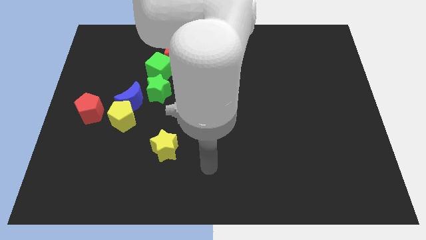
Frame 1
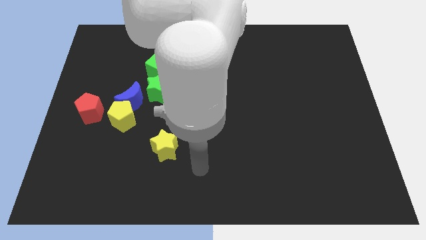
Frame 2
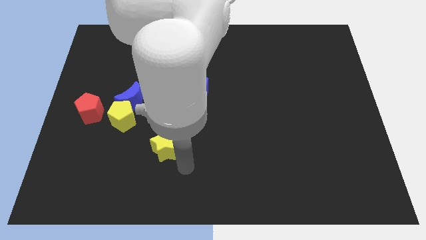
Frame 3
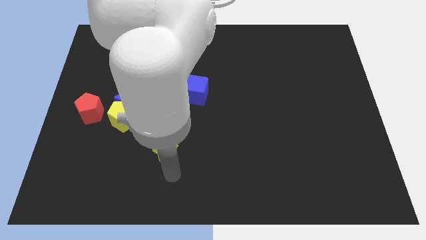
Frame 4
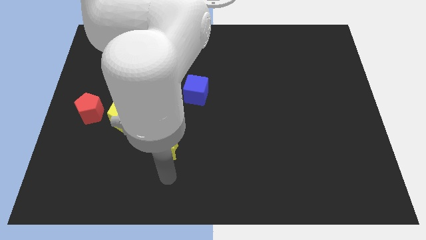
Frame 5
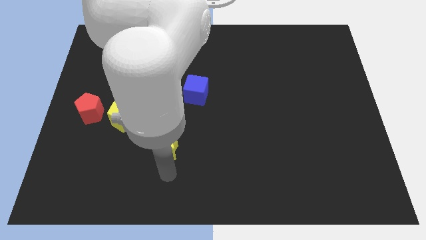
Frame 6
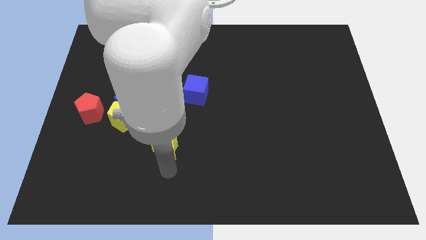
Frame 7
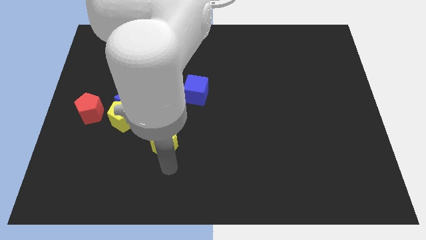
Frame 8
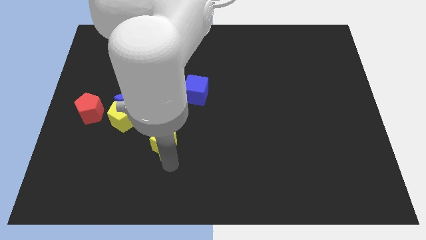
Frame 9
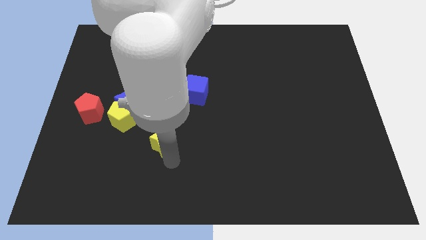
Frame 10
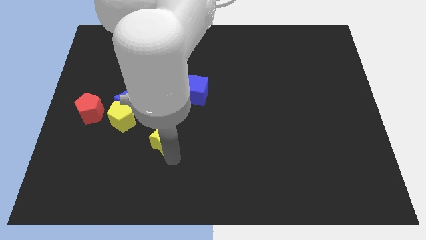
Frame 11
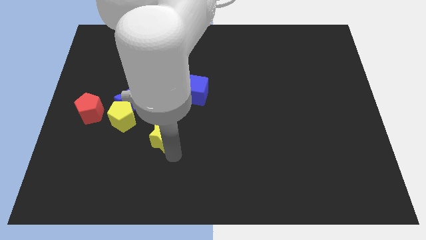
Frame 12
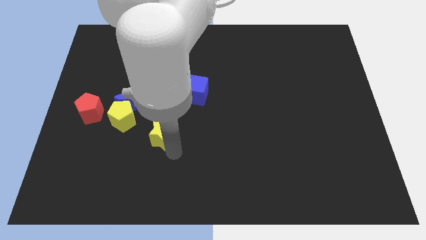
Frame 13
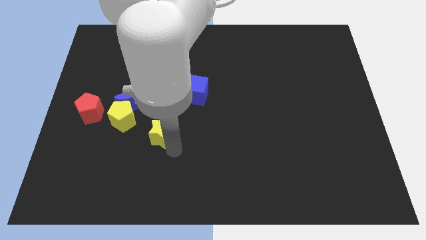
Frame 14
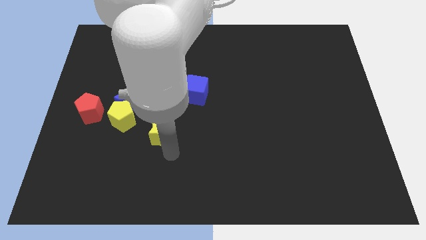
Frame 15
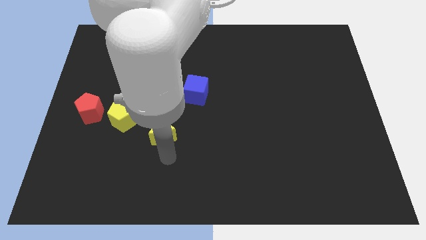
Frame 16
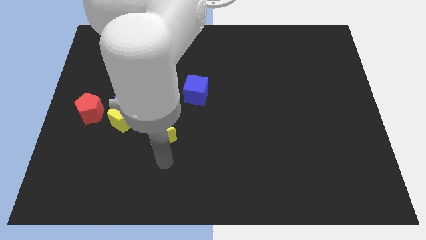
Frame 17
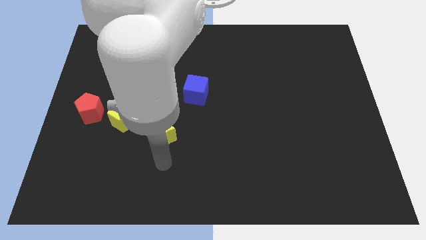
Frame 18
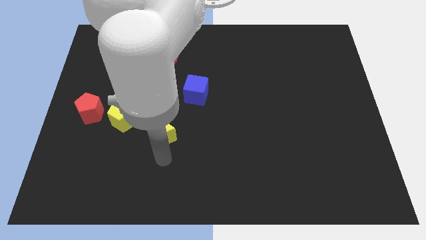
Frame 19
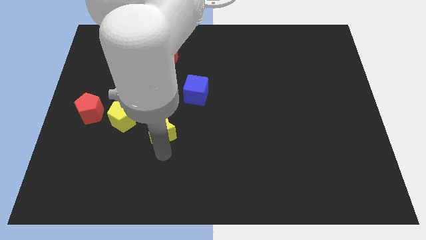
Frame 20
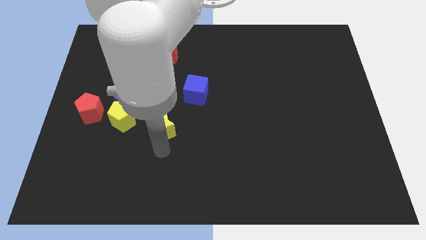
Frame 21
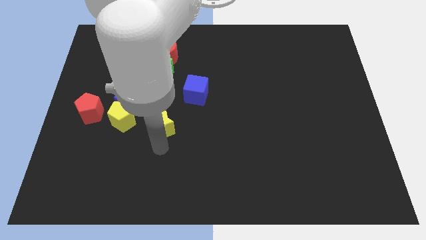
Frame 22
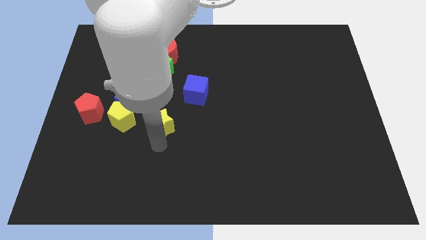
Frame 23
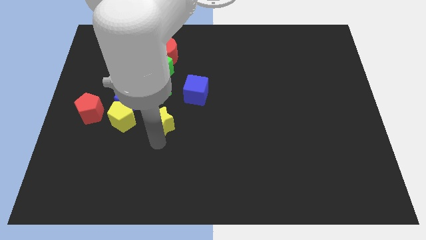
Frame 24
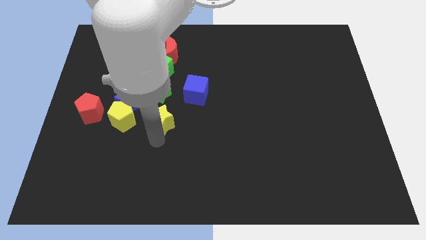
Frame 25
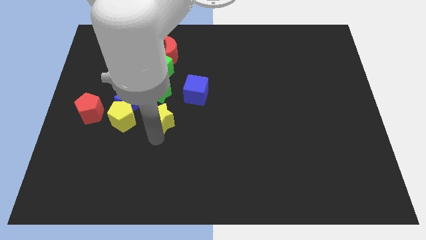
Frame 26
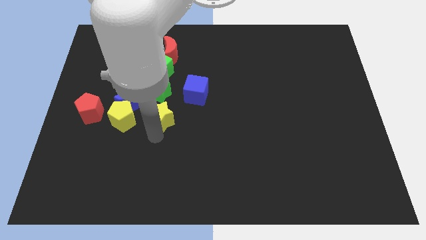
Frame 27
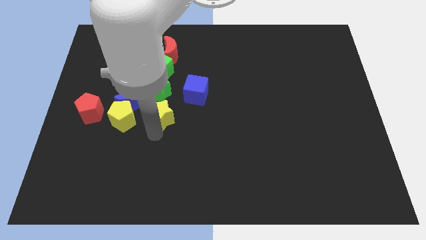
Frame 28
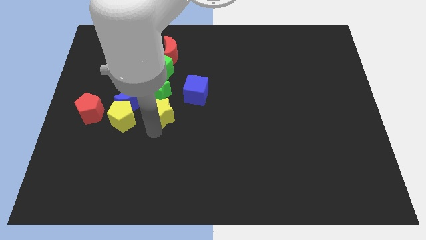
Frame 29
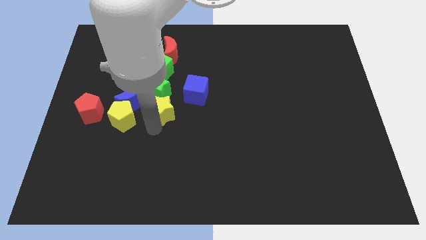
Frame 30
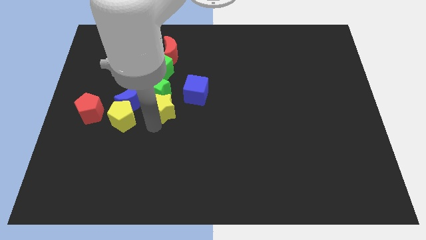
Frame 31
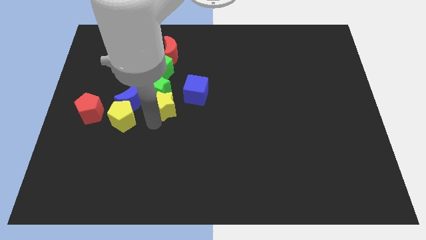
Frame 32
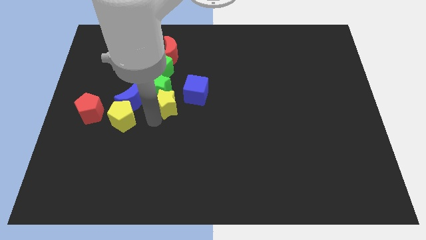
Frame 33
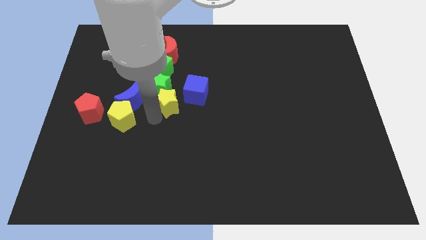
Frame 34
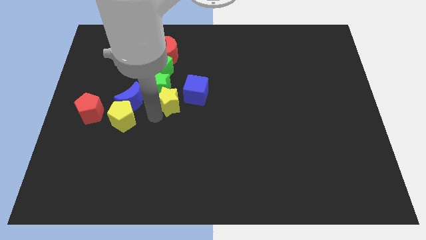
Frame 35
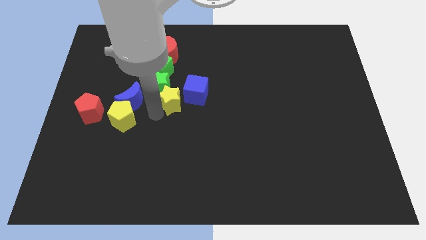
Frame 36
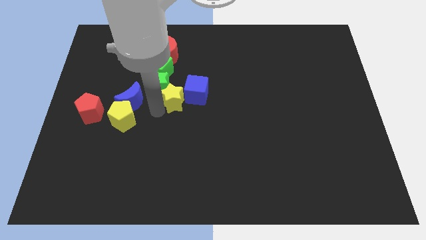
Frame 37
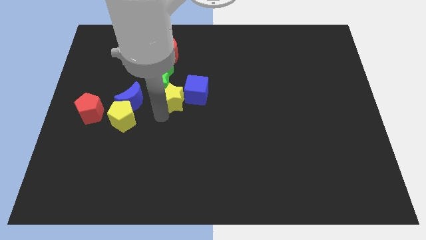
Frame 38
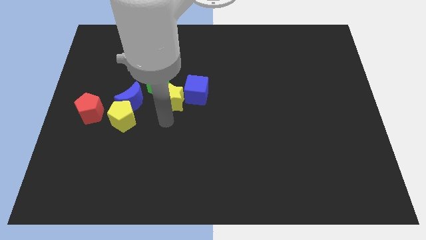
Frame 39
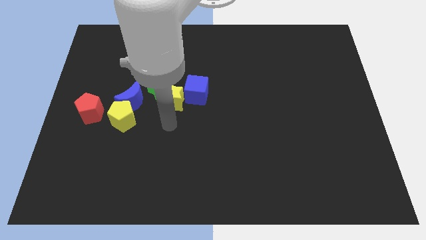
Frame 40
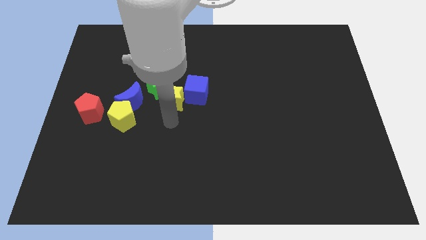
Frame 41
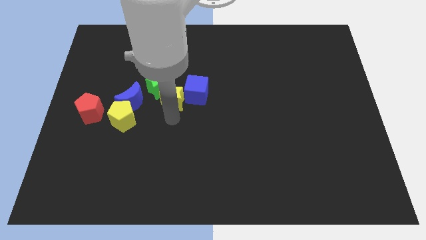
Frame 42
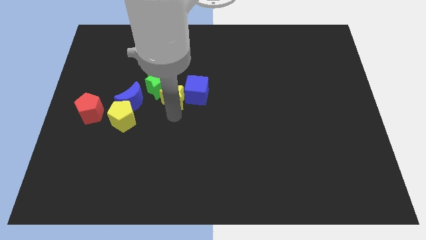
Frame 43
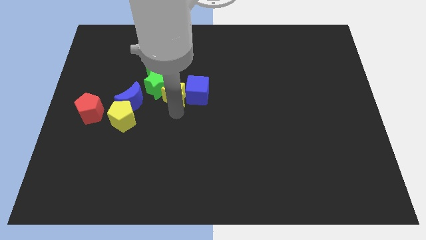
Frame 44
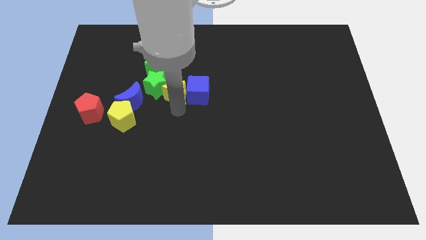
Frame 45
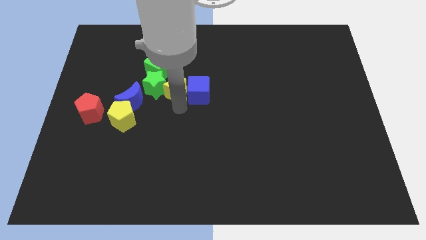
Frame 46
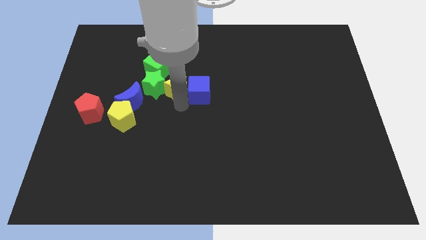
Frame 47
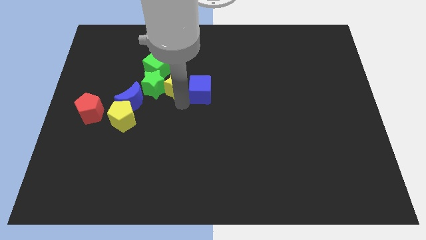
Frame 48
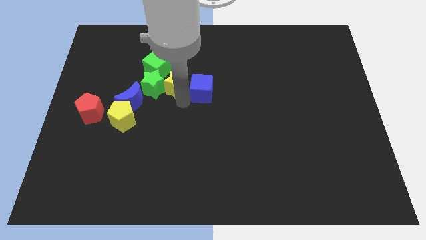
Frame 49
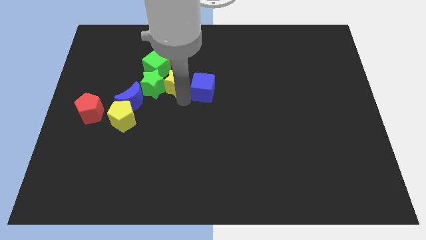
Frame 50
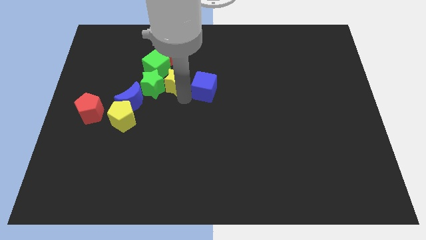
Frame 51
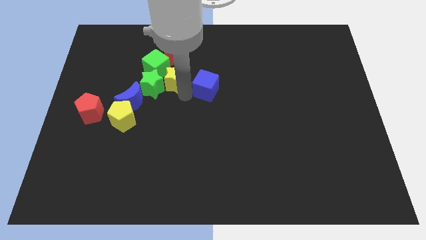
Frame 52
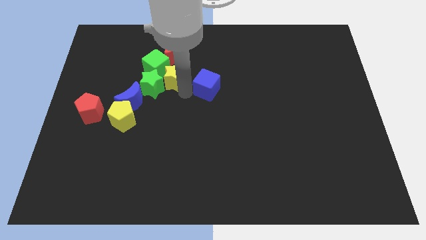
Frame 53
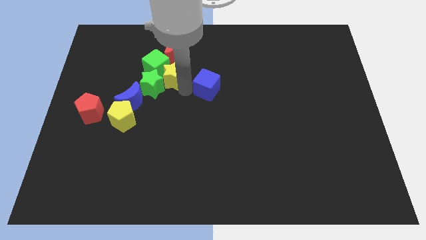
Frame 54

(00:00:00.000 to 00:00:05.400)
put the yellow star close to the green cube

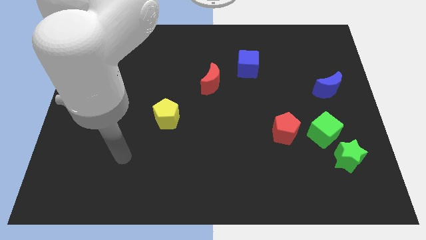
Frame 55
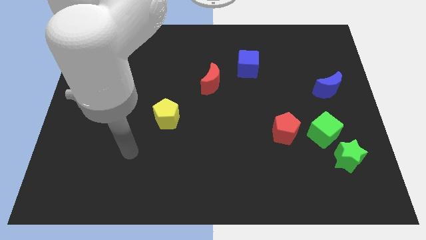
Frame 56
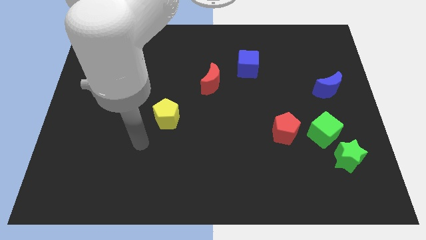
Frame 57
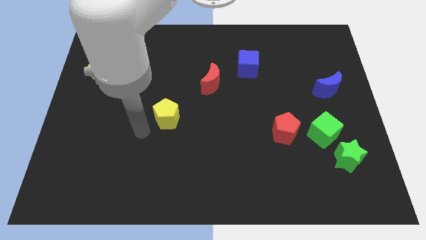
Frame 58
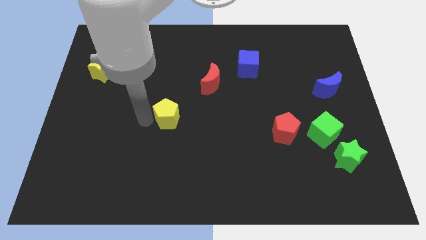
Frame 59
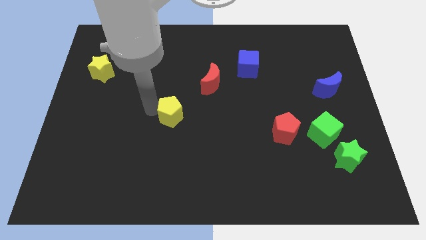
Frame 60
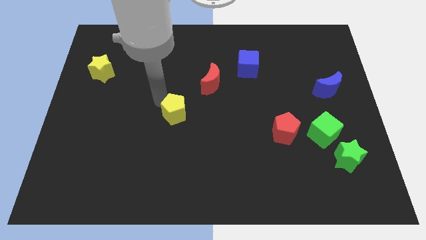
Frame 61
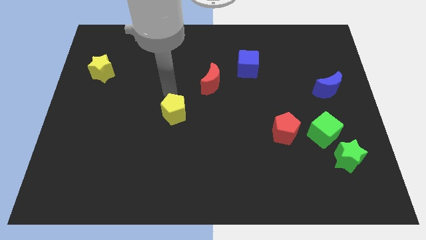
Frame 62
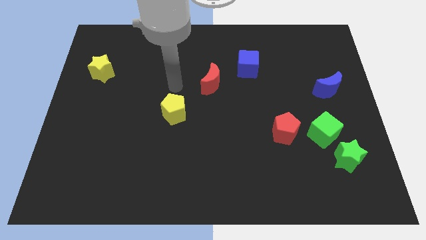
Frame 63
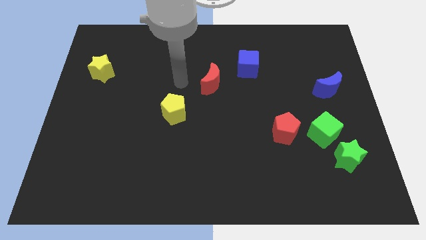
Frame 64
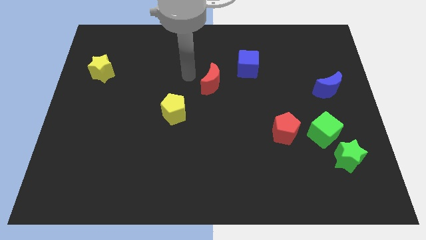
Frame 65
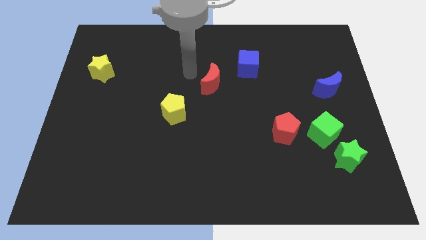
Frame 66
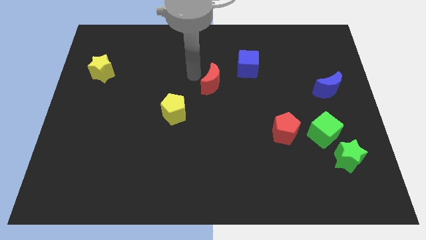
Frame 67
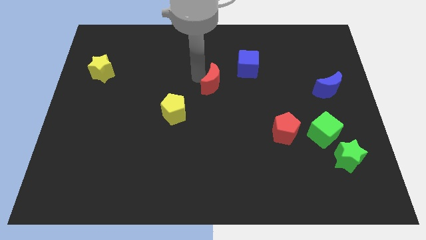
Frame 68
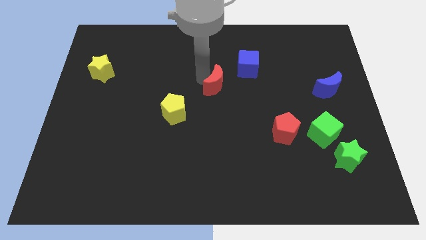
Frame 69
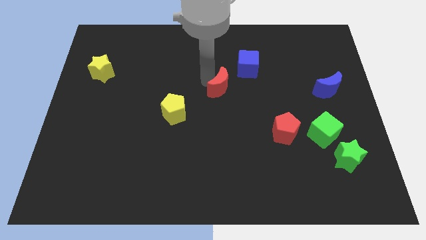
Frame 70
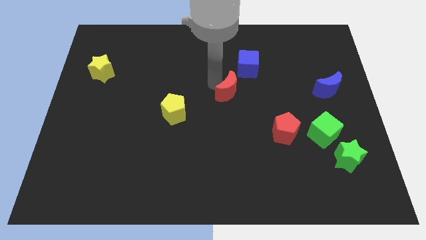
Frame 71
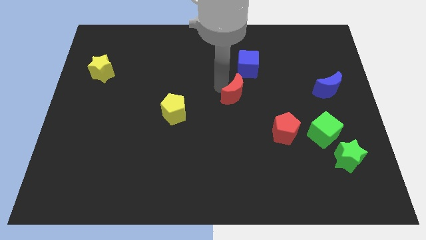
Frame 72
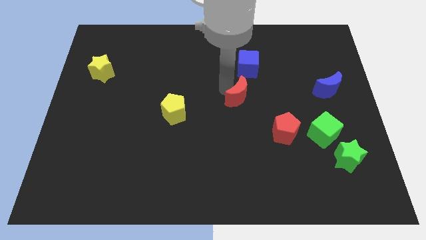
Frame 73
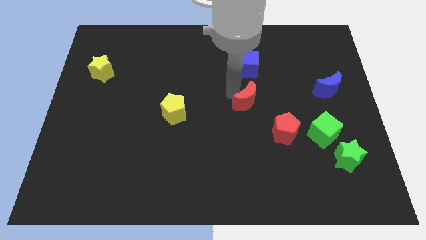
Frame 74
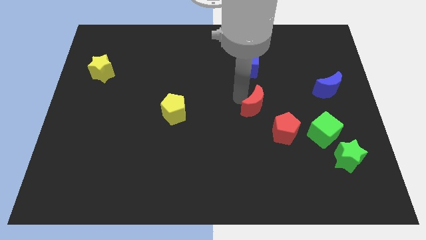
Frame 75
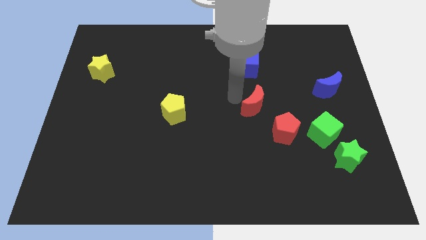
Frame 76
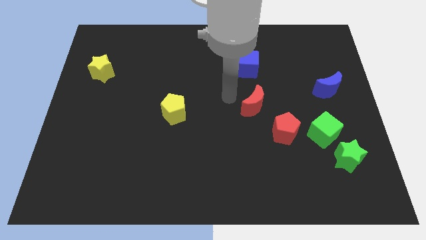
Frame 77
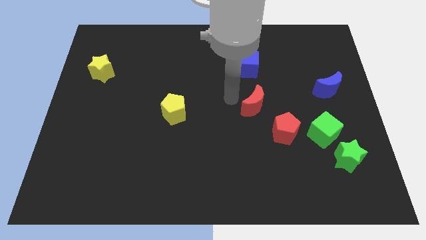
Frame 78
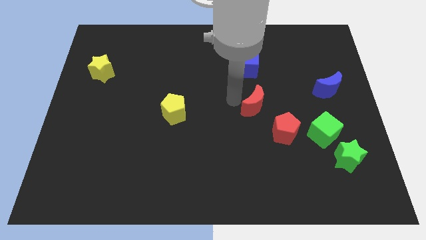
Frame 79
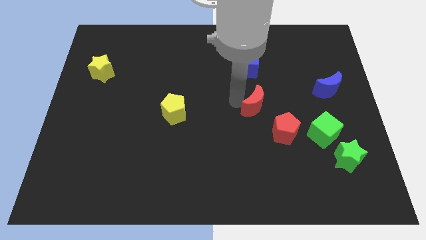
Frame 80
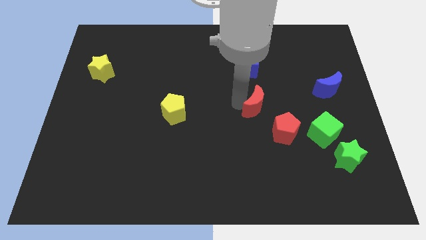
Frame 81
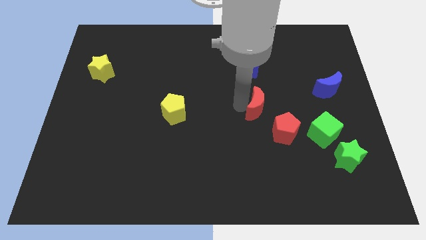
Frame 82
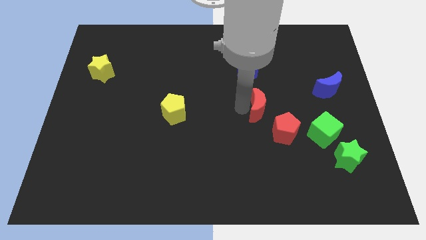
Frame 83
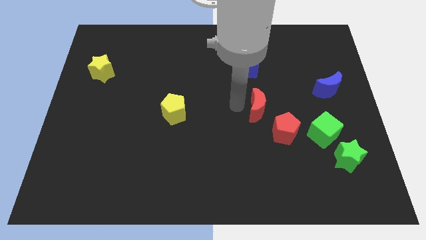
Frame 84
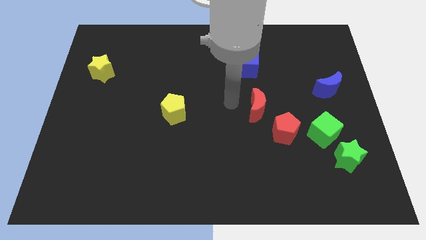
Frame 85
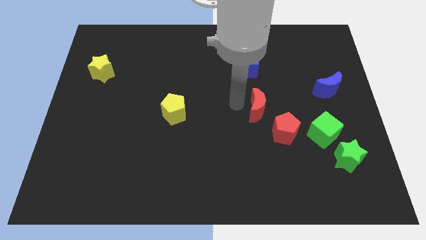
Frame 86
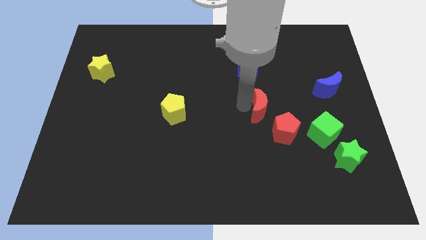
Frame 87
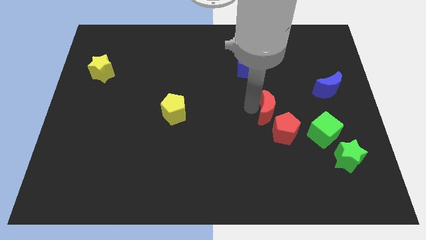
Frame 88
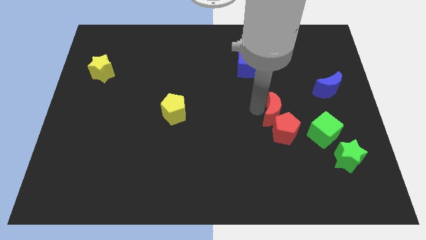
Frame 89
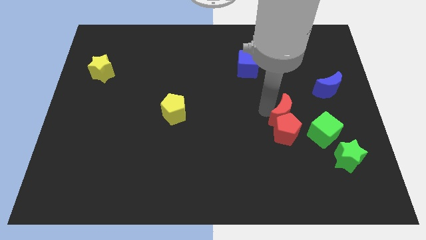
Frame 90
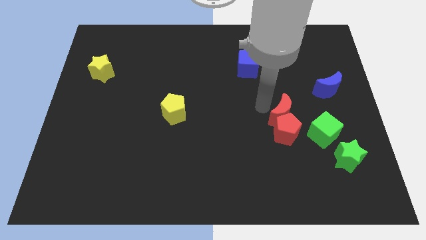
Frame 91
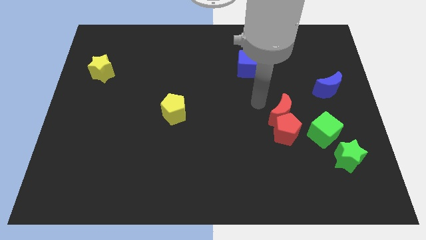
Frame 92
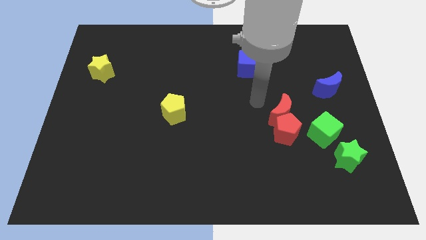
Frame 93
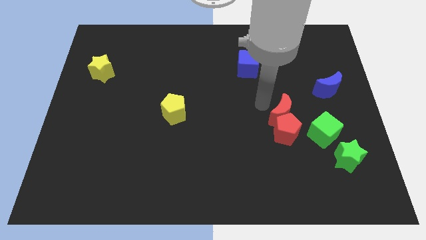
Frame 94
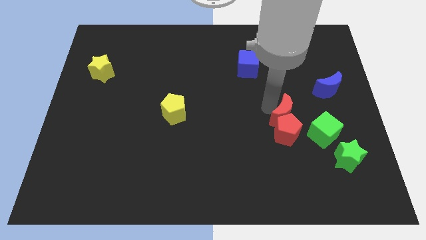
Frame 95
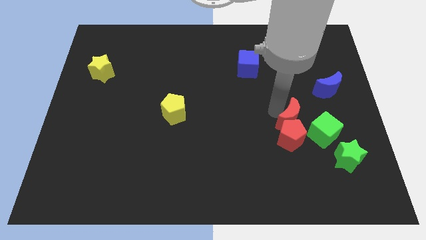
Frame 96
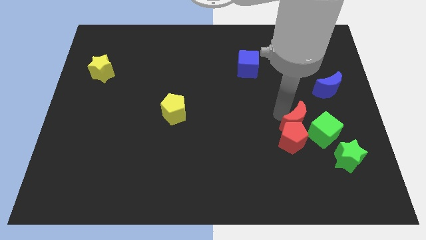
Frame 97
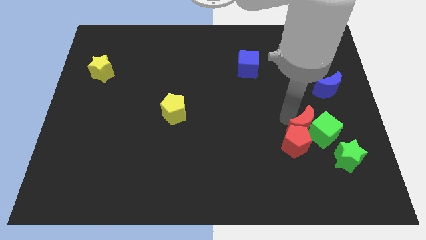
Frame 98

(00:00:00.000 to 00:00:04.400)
slide the red moon to the green cube
